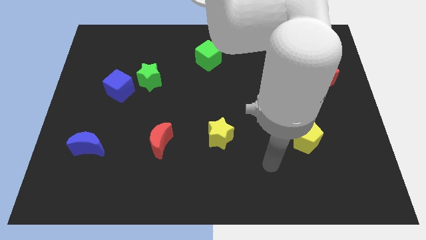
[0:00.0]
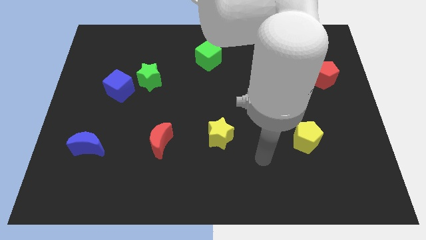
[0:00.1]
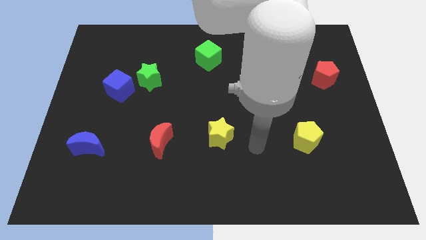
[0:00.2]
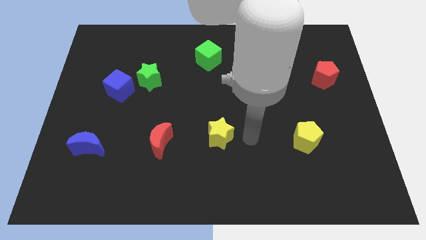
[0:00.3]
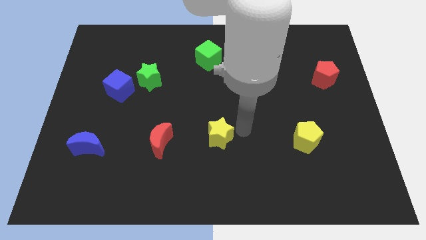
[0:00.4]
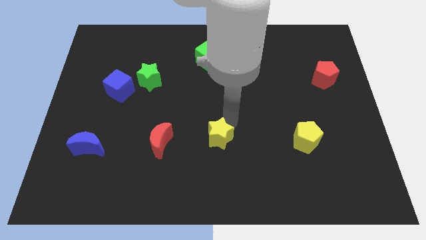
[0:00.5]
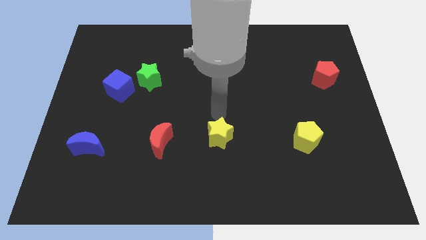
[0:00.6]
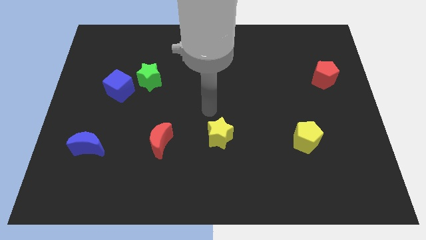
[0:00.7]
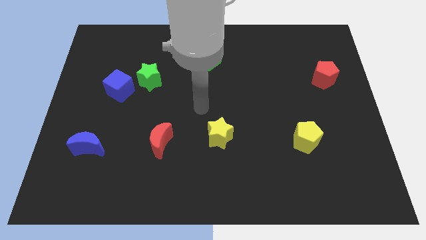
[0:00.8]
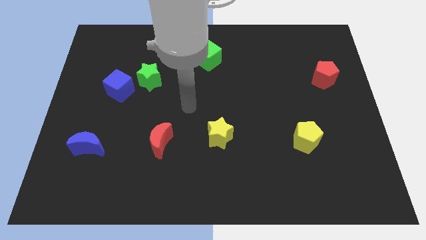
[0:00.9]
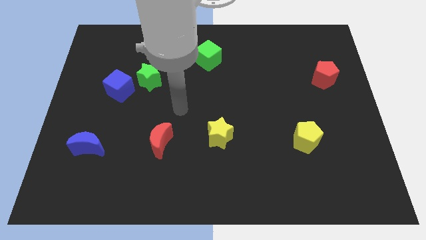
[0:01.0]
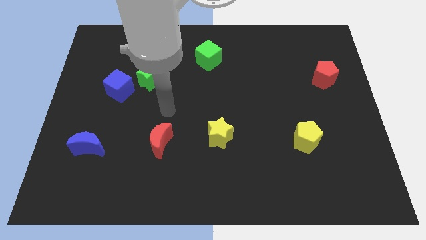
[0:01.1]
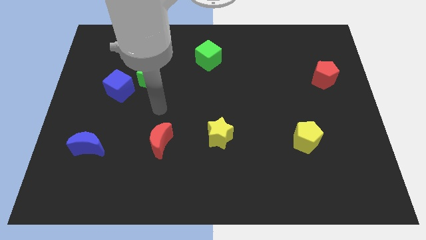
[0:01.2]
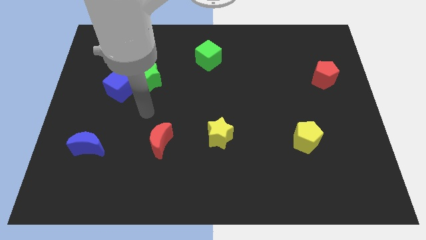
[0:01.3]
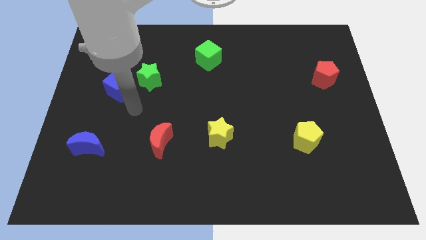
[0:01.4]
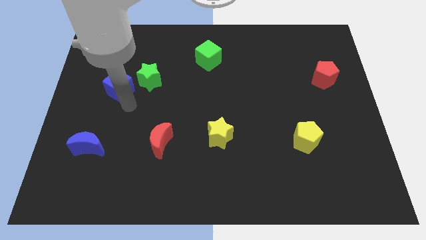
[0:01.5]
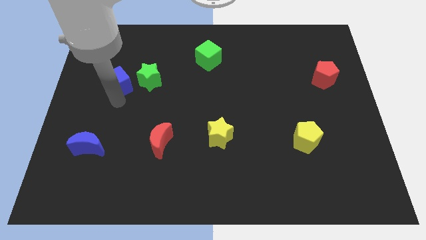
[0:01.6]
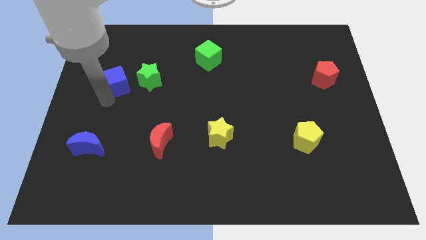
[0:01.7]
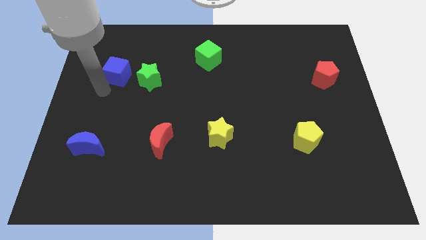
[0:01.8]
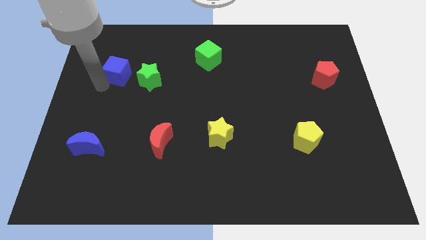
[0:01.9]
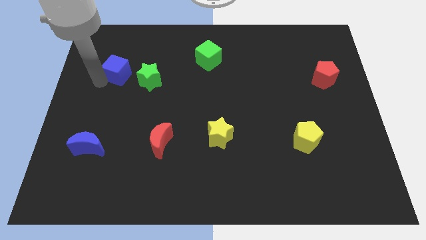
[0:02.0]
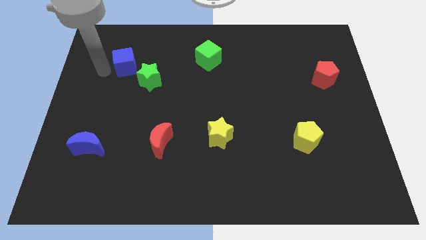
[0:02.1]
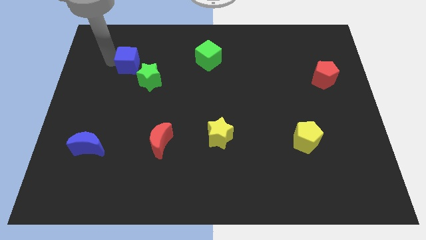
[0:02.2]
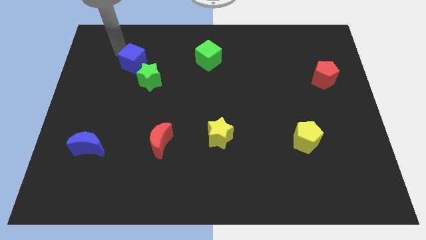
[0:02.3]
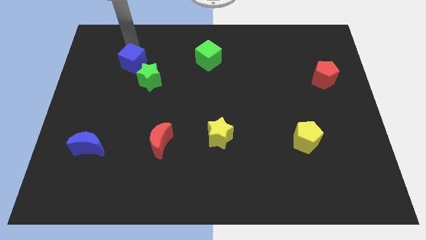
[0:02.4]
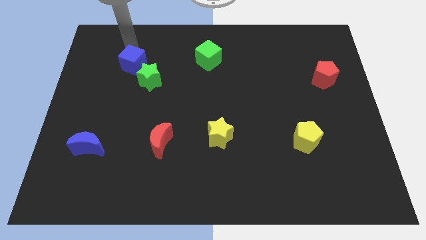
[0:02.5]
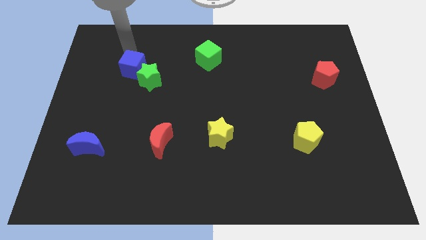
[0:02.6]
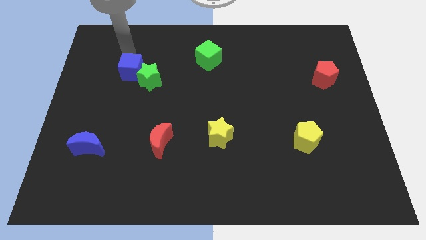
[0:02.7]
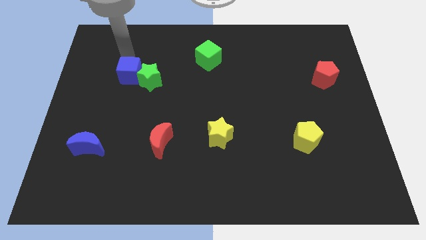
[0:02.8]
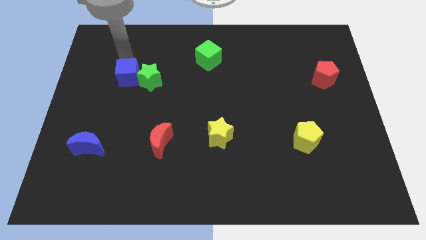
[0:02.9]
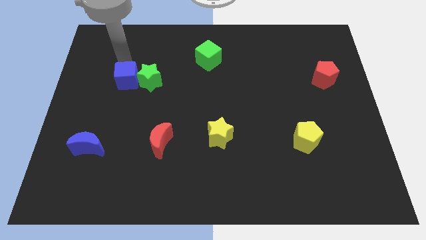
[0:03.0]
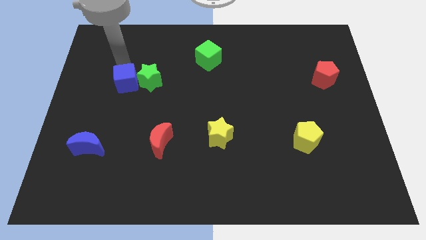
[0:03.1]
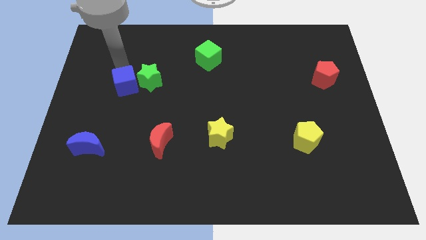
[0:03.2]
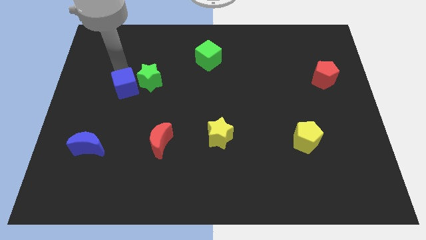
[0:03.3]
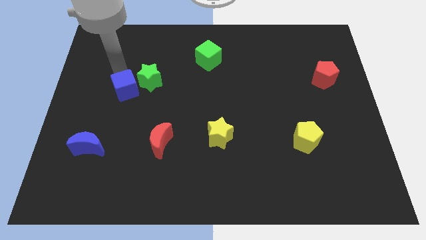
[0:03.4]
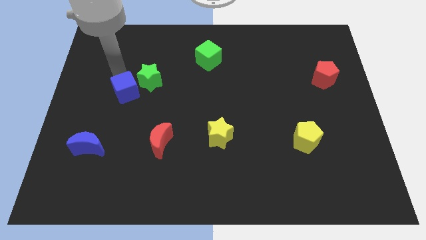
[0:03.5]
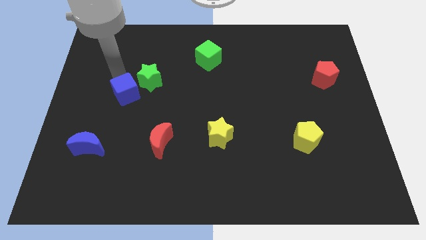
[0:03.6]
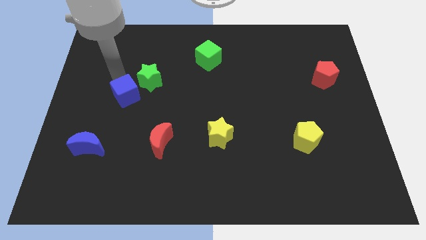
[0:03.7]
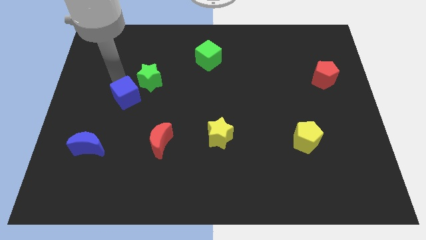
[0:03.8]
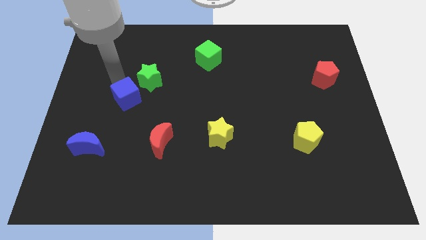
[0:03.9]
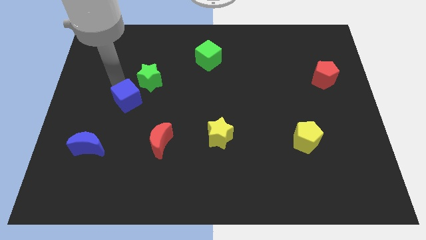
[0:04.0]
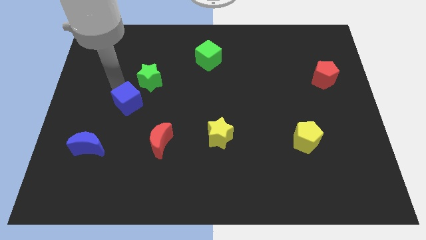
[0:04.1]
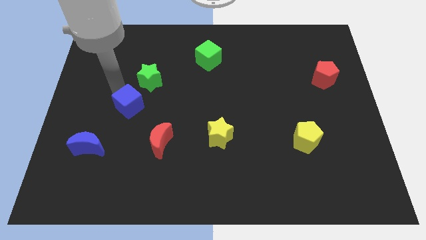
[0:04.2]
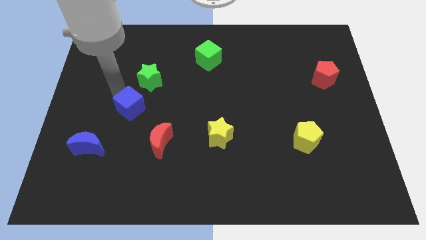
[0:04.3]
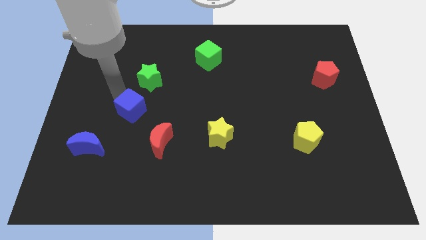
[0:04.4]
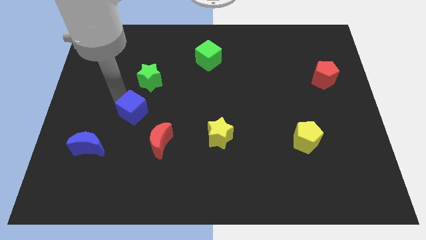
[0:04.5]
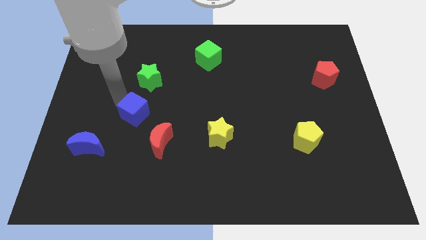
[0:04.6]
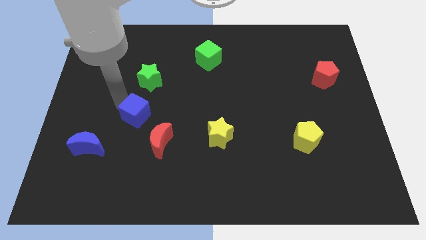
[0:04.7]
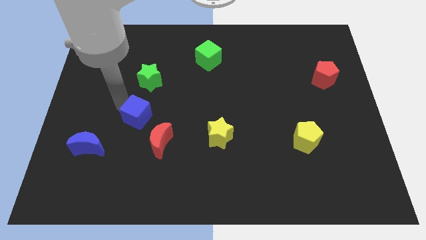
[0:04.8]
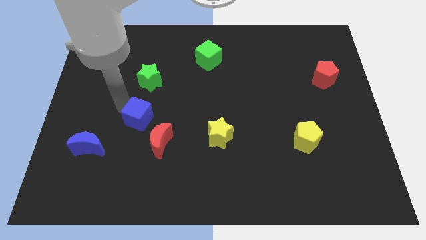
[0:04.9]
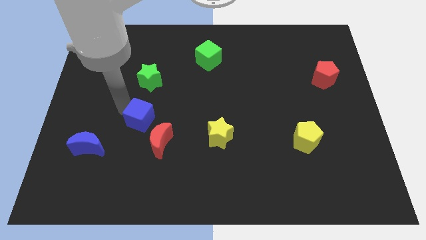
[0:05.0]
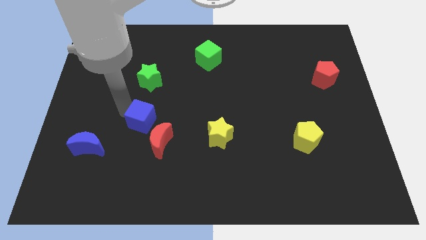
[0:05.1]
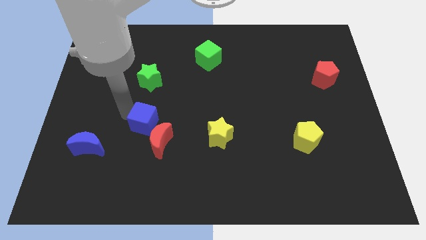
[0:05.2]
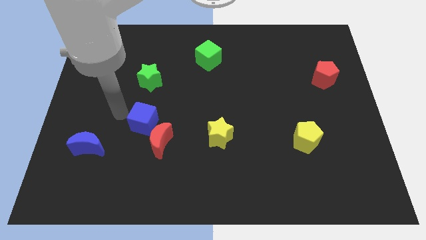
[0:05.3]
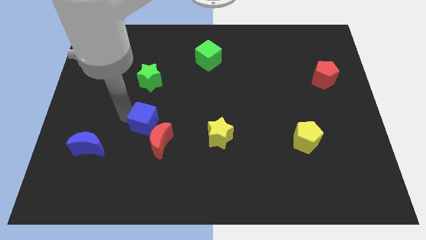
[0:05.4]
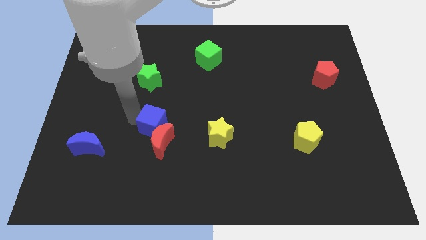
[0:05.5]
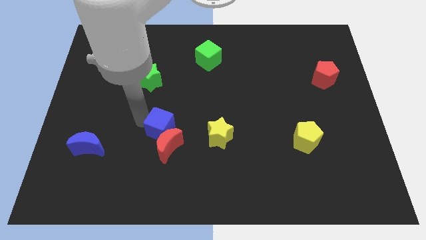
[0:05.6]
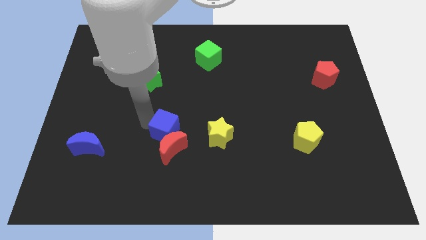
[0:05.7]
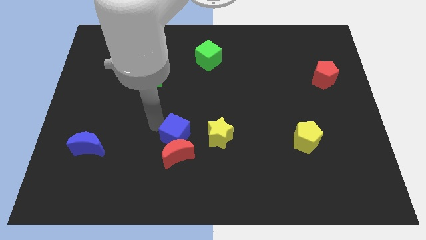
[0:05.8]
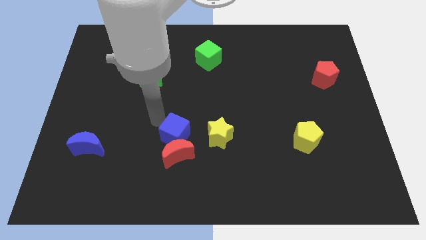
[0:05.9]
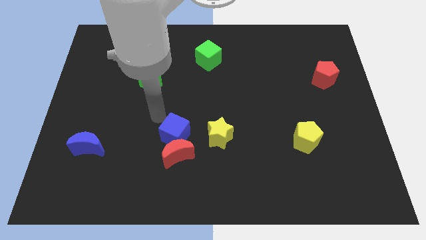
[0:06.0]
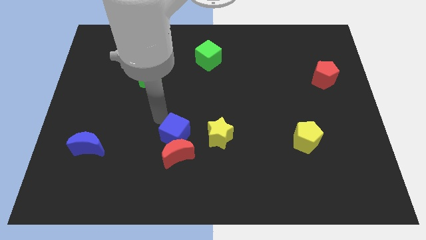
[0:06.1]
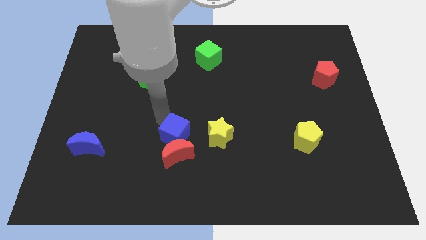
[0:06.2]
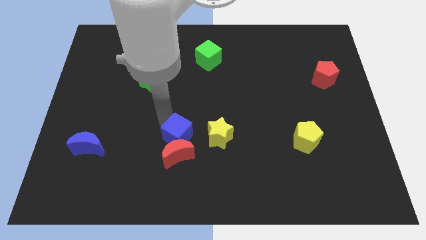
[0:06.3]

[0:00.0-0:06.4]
move the blue cube downwards and to the right

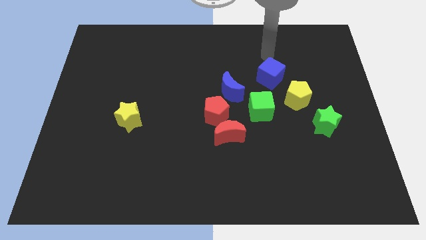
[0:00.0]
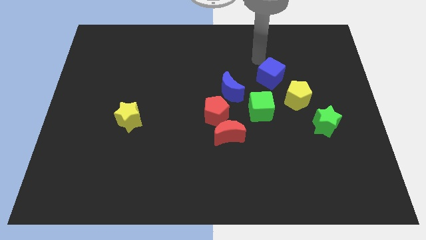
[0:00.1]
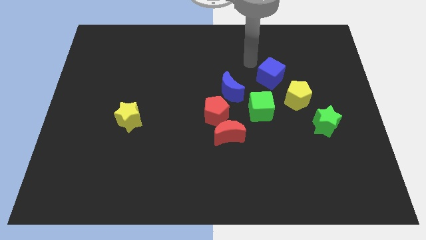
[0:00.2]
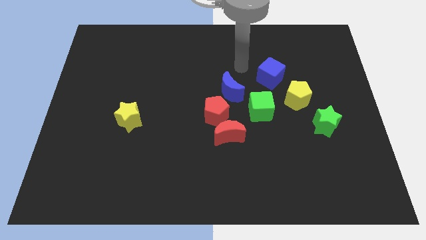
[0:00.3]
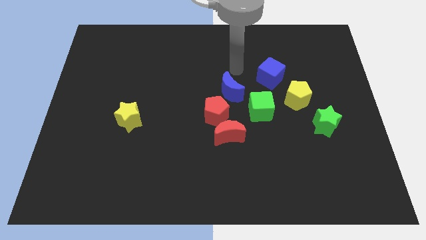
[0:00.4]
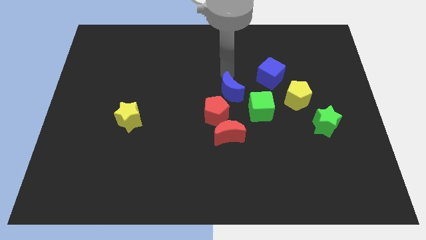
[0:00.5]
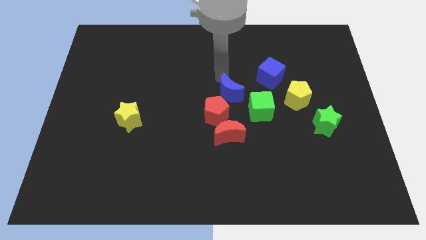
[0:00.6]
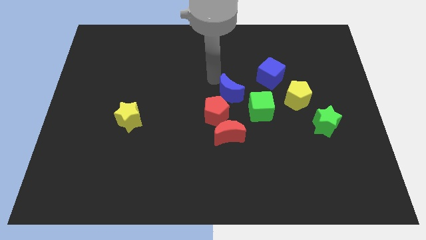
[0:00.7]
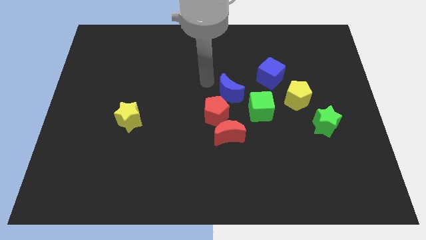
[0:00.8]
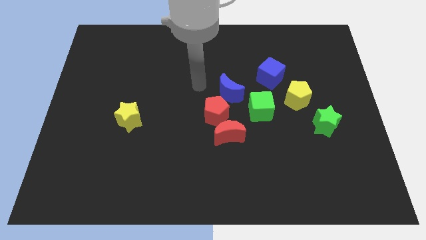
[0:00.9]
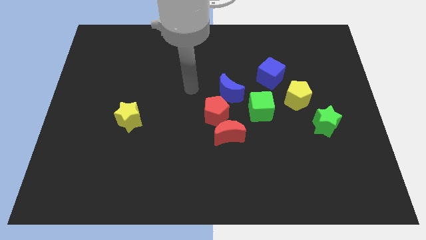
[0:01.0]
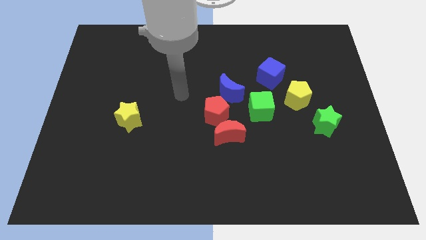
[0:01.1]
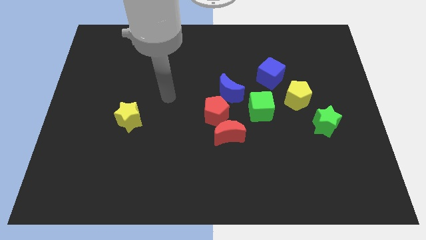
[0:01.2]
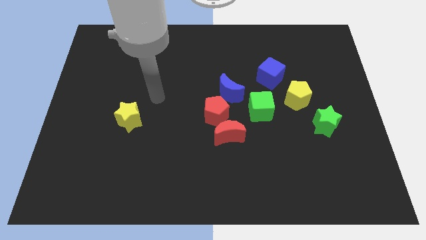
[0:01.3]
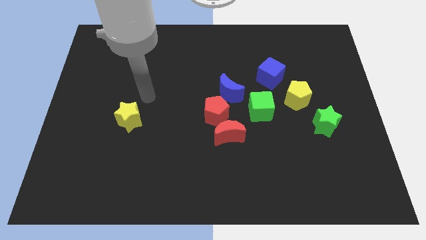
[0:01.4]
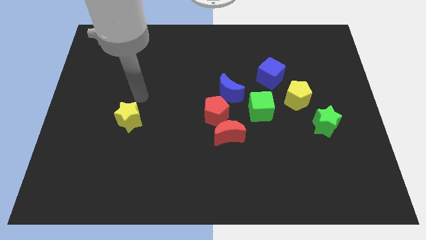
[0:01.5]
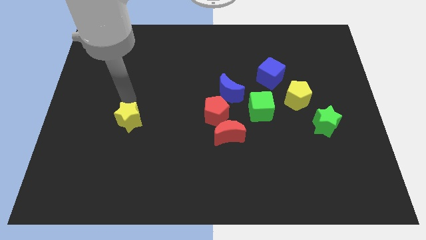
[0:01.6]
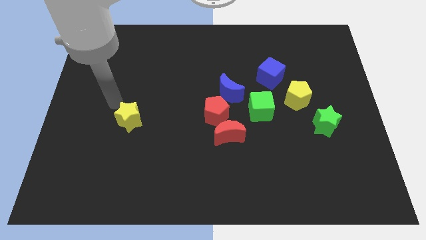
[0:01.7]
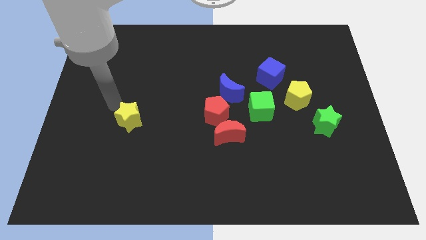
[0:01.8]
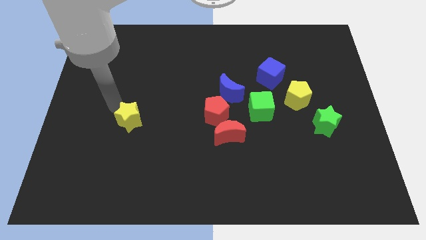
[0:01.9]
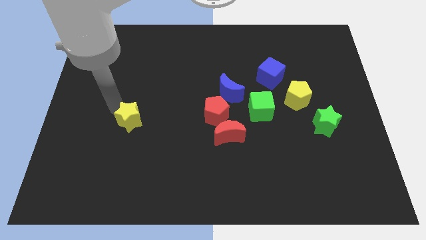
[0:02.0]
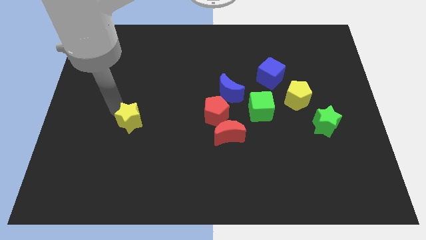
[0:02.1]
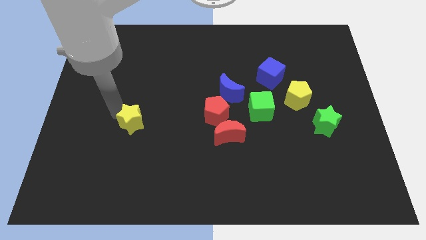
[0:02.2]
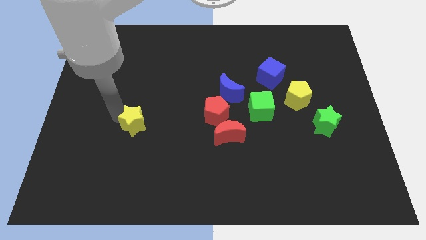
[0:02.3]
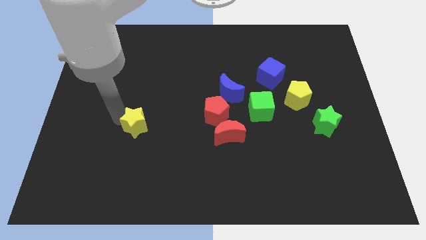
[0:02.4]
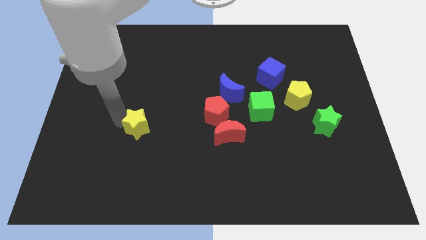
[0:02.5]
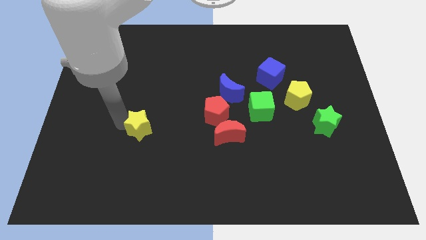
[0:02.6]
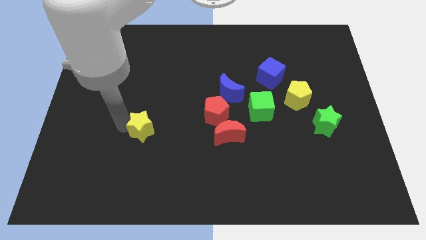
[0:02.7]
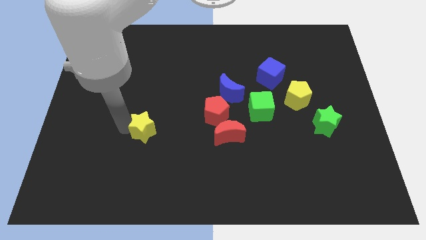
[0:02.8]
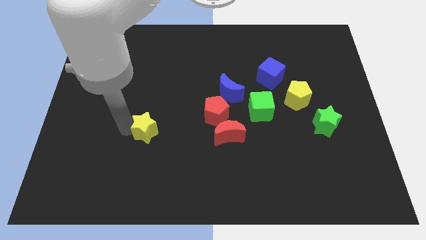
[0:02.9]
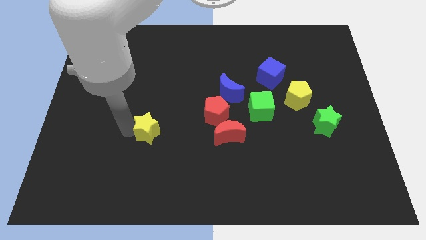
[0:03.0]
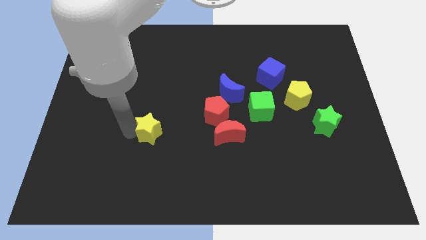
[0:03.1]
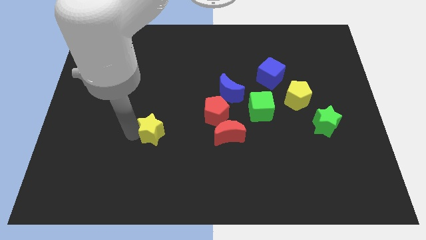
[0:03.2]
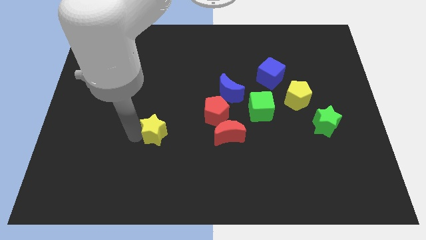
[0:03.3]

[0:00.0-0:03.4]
move the yellow star down and to the right diagonally a little
